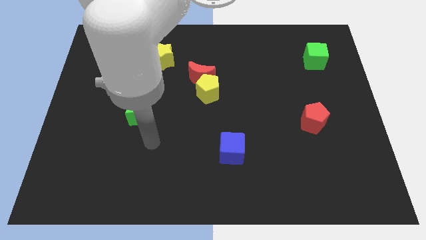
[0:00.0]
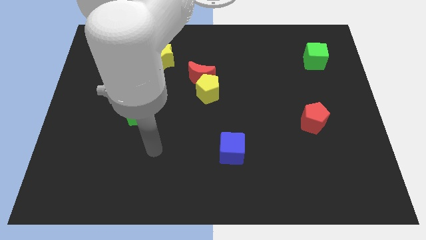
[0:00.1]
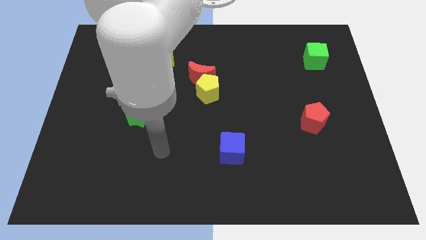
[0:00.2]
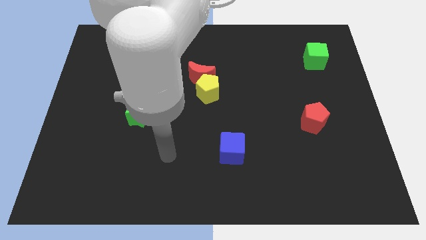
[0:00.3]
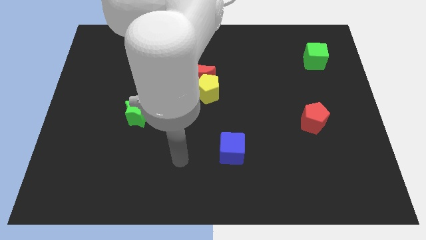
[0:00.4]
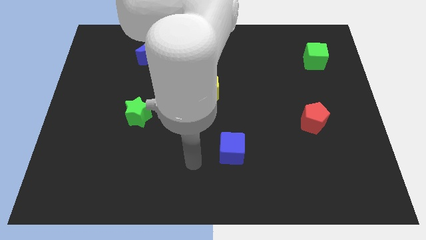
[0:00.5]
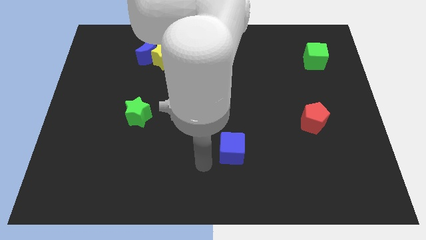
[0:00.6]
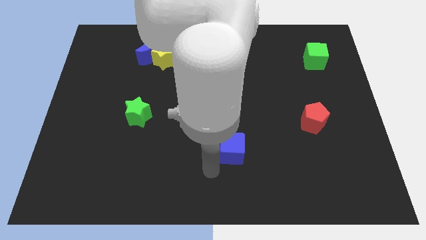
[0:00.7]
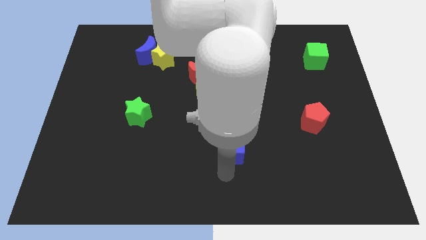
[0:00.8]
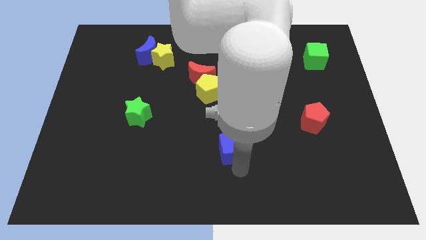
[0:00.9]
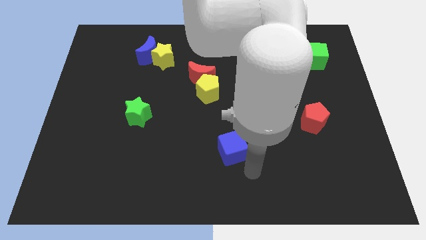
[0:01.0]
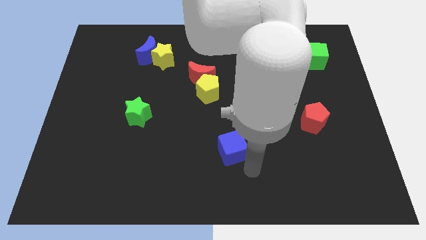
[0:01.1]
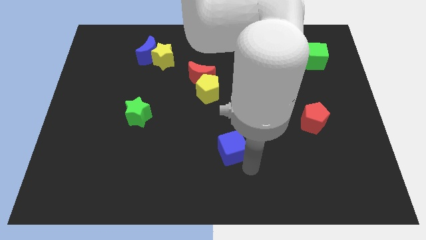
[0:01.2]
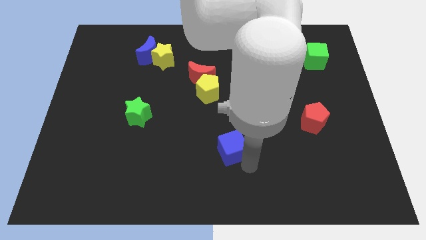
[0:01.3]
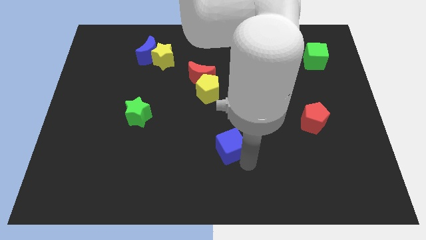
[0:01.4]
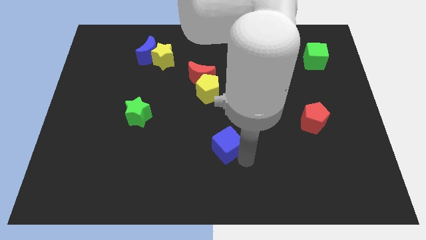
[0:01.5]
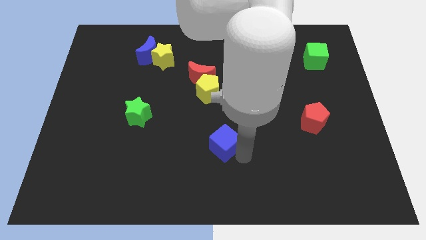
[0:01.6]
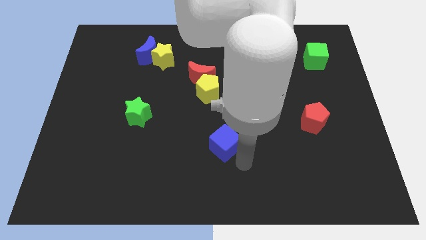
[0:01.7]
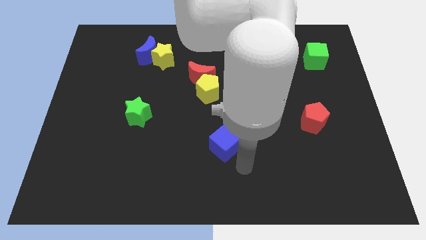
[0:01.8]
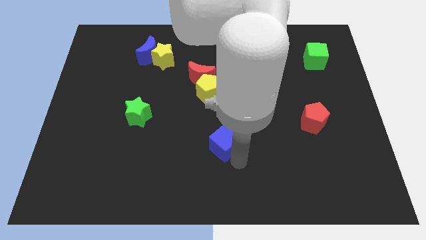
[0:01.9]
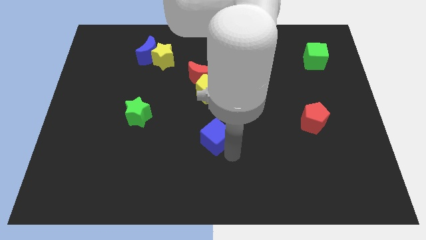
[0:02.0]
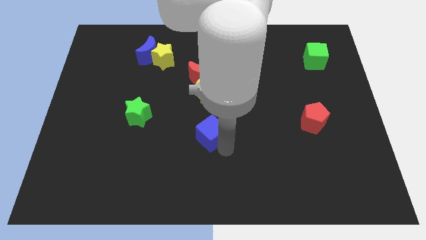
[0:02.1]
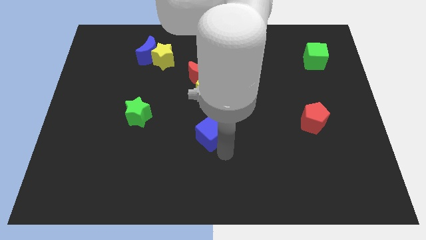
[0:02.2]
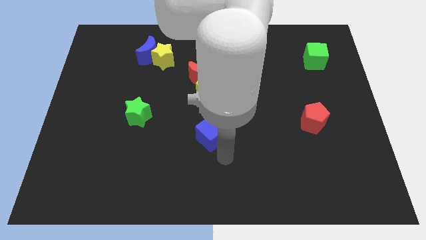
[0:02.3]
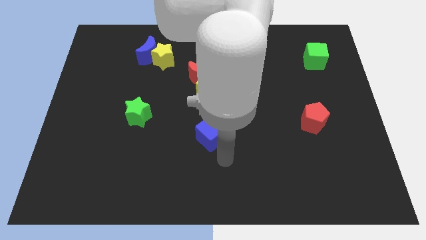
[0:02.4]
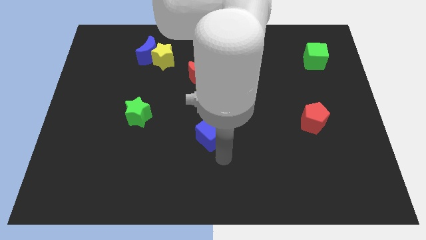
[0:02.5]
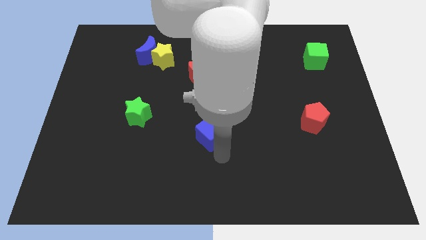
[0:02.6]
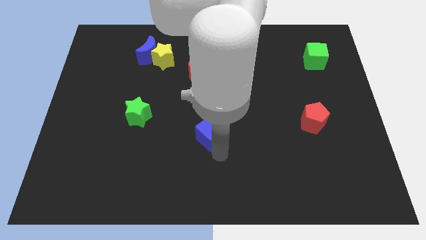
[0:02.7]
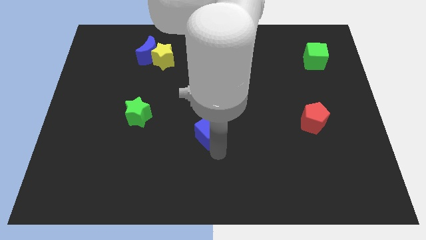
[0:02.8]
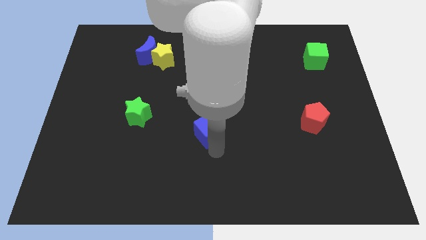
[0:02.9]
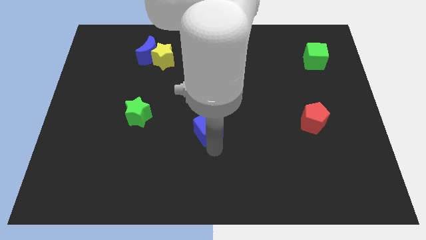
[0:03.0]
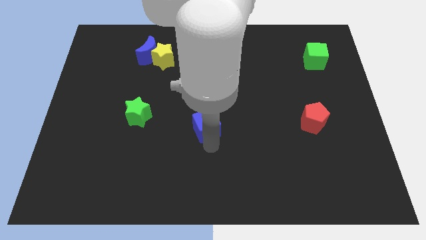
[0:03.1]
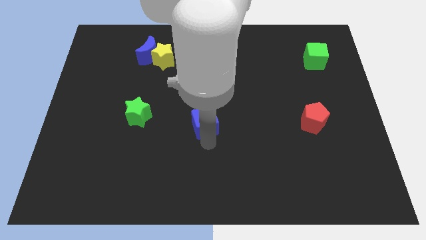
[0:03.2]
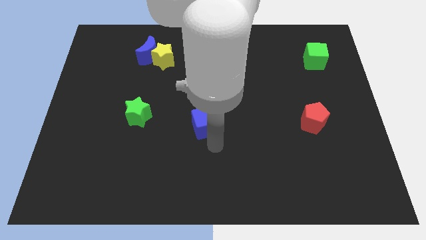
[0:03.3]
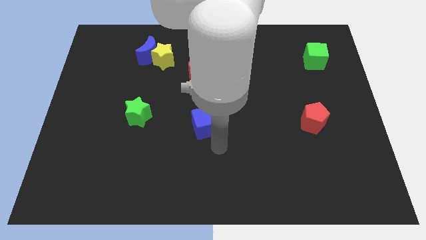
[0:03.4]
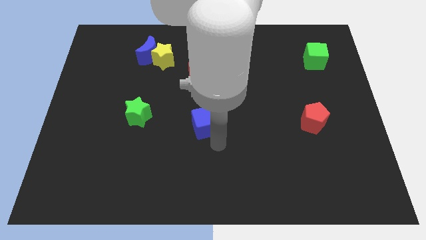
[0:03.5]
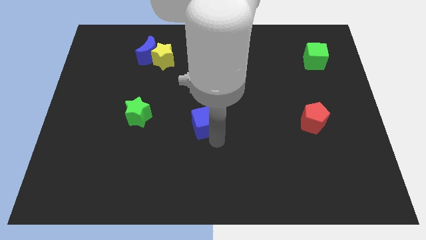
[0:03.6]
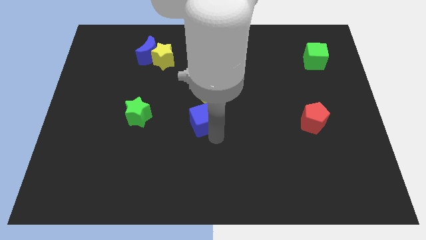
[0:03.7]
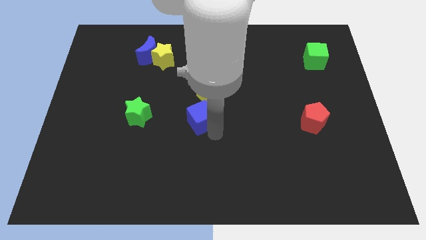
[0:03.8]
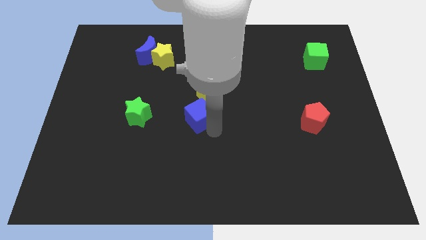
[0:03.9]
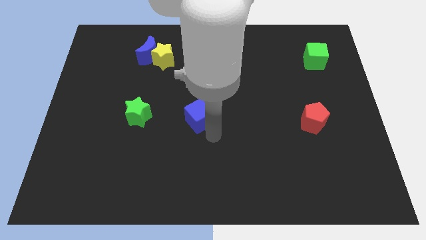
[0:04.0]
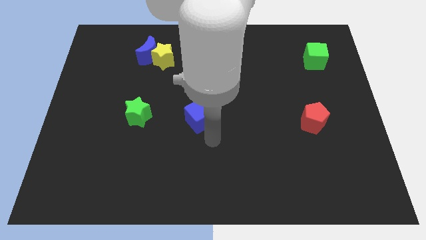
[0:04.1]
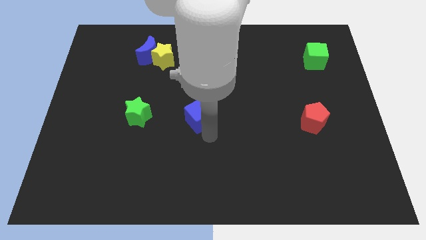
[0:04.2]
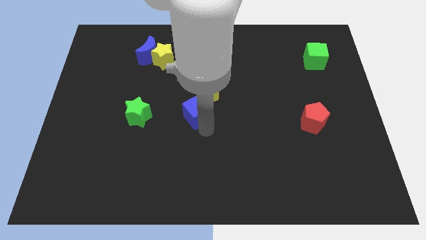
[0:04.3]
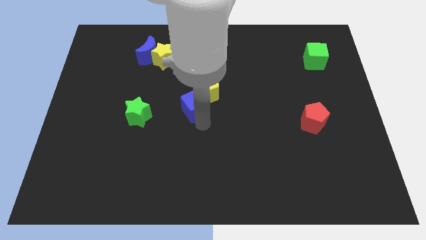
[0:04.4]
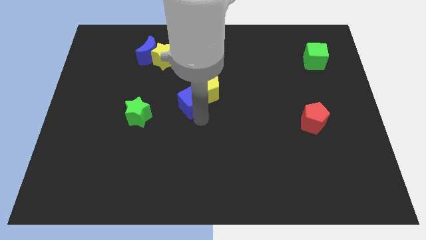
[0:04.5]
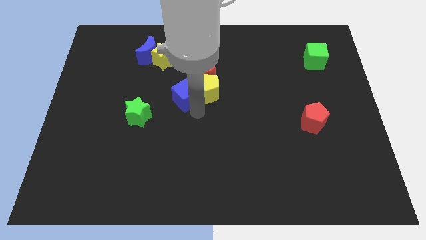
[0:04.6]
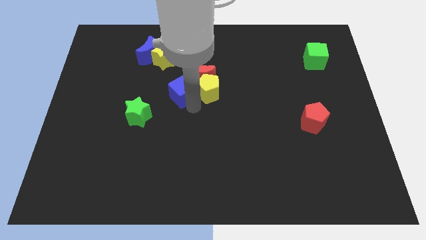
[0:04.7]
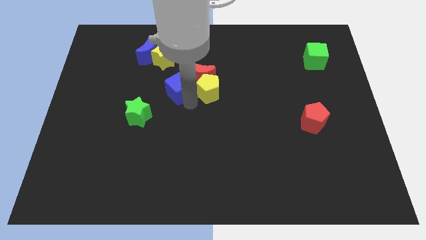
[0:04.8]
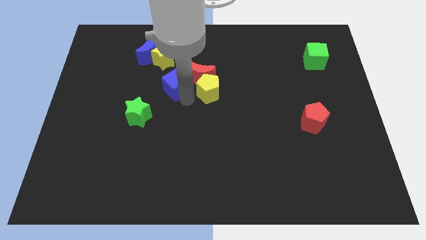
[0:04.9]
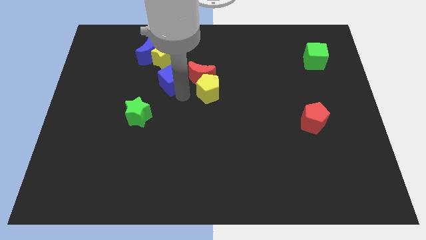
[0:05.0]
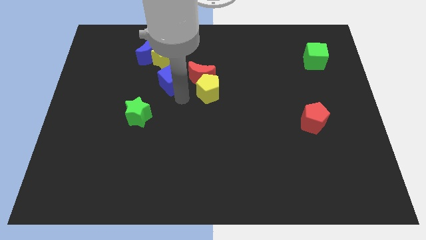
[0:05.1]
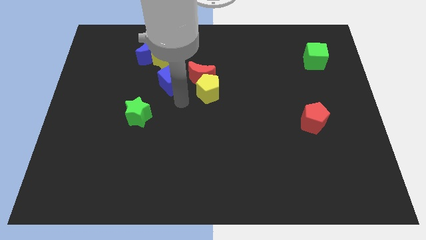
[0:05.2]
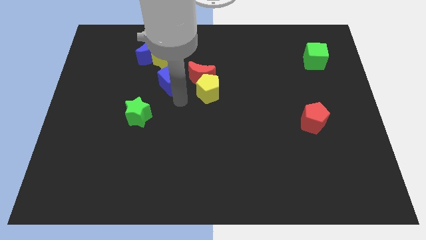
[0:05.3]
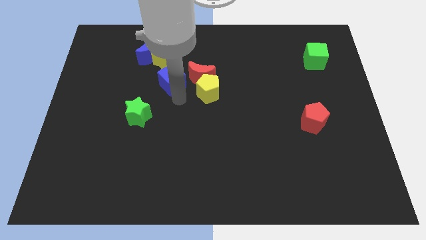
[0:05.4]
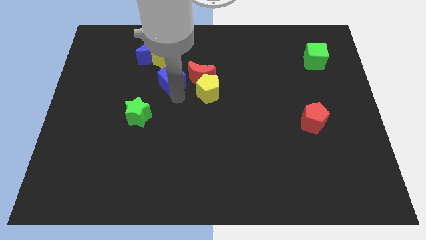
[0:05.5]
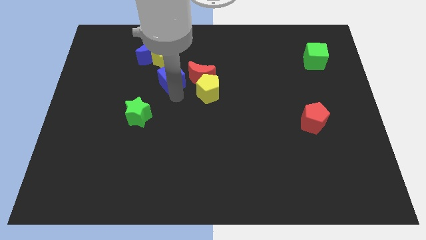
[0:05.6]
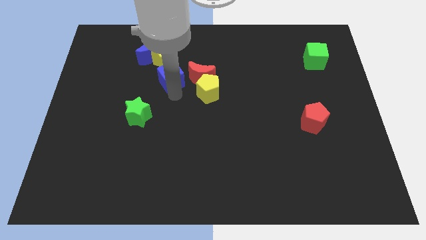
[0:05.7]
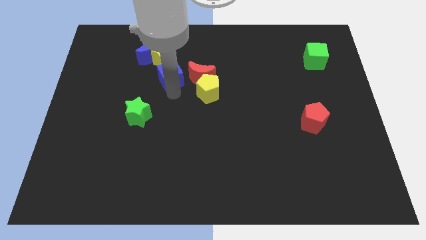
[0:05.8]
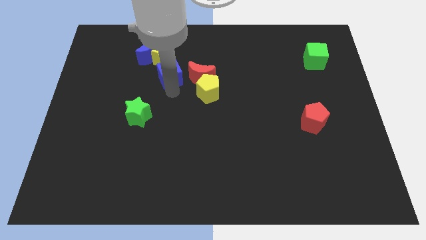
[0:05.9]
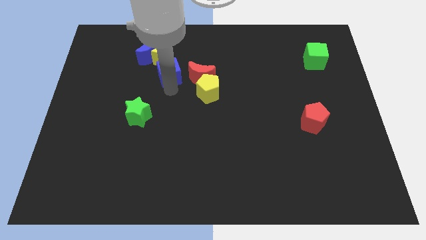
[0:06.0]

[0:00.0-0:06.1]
slide the blue cube next to the yellow star
